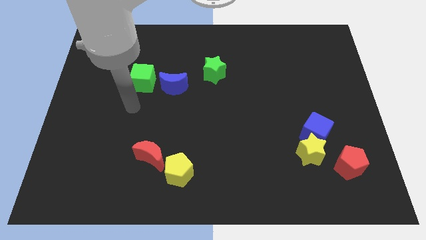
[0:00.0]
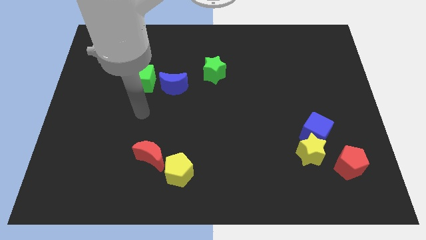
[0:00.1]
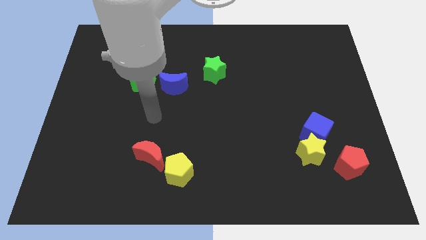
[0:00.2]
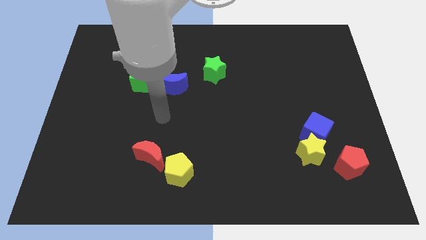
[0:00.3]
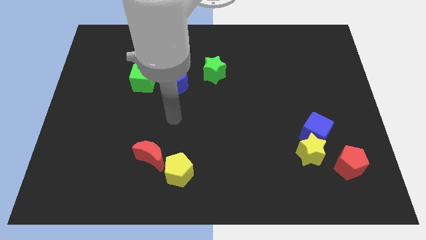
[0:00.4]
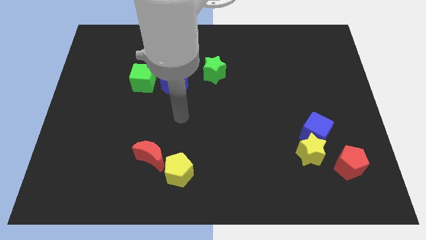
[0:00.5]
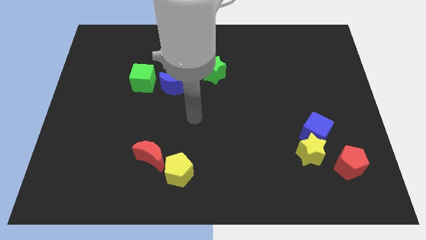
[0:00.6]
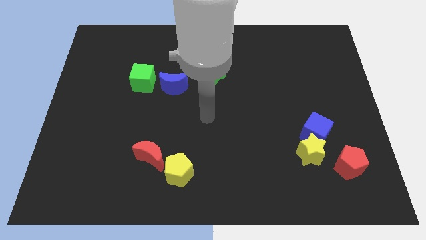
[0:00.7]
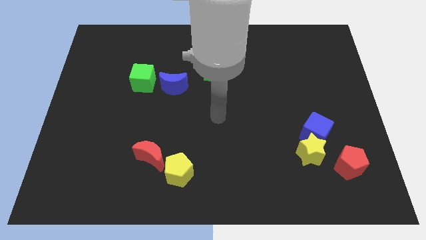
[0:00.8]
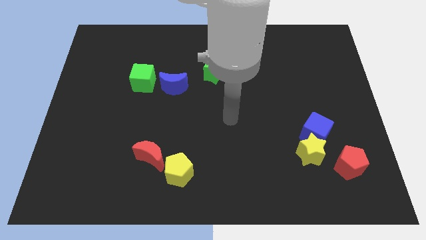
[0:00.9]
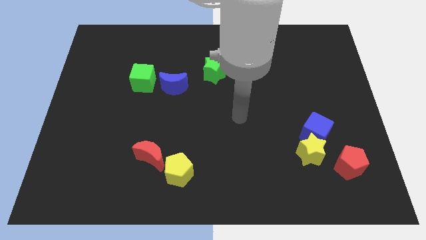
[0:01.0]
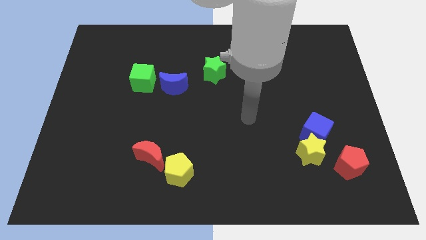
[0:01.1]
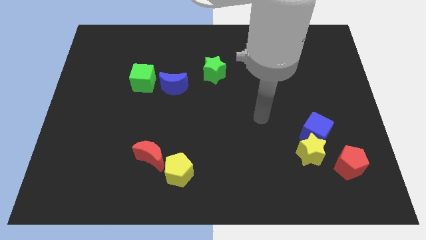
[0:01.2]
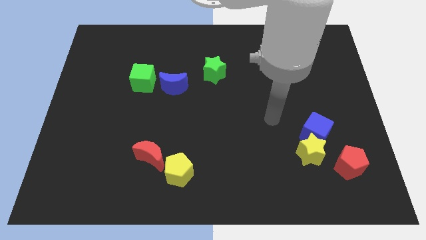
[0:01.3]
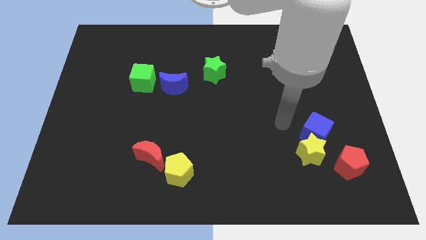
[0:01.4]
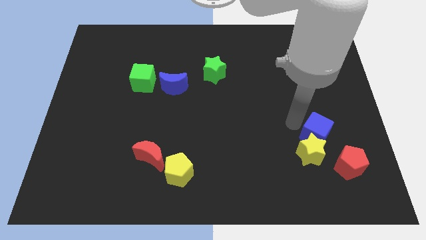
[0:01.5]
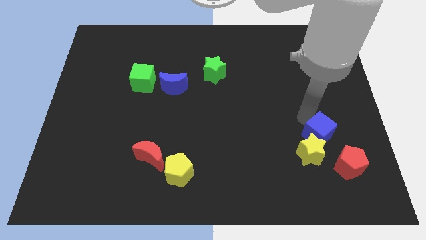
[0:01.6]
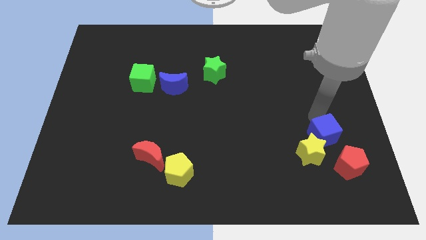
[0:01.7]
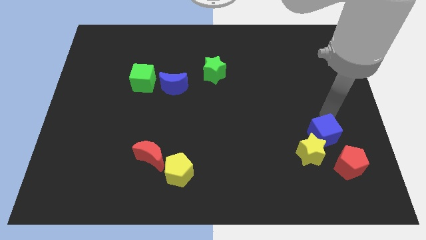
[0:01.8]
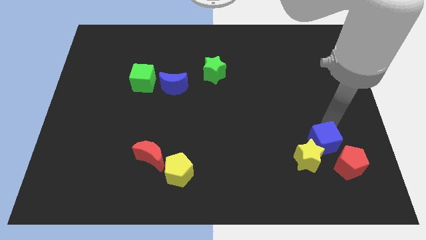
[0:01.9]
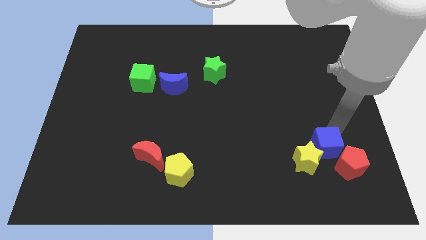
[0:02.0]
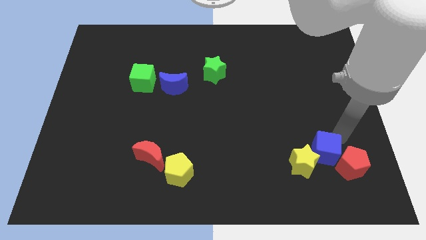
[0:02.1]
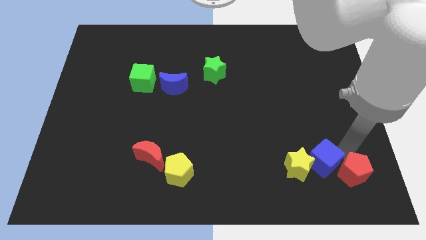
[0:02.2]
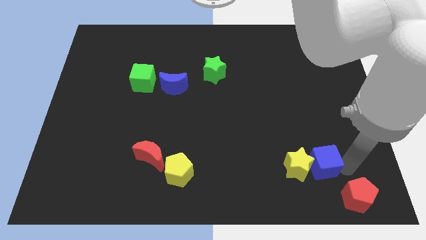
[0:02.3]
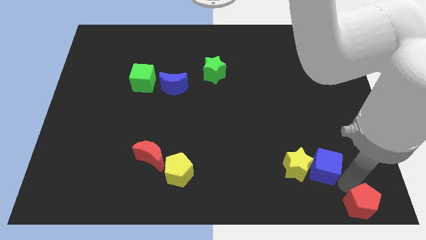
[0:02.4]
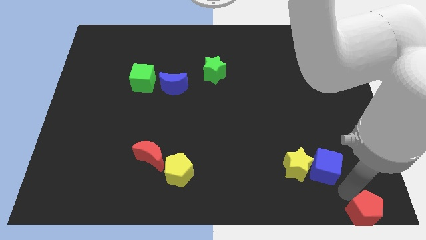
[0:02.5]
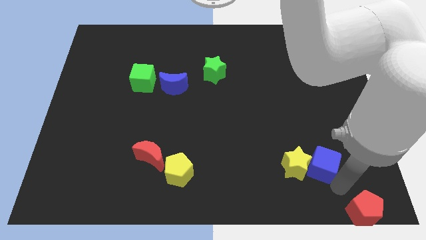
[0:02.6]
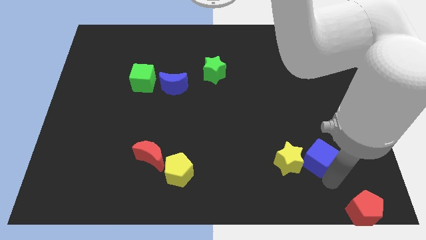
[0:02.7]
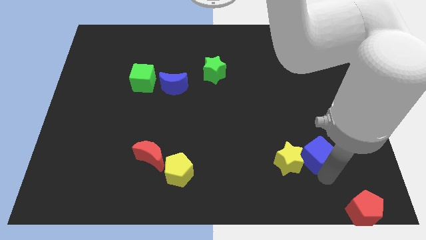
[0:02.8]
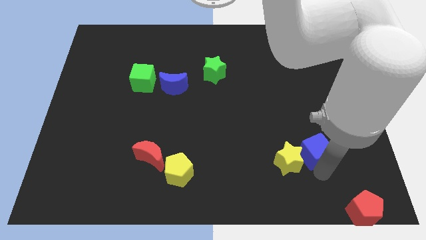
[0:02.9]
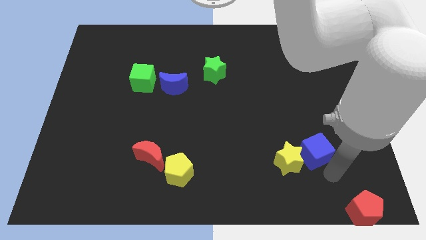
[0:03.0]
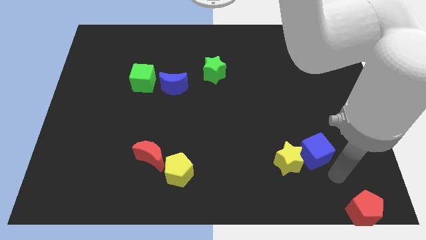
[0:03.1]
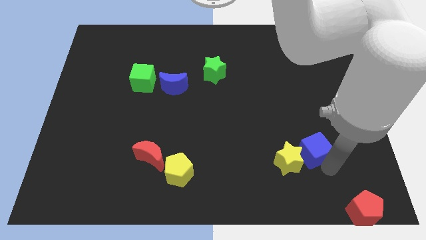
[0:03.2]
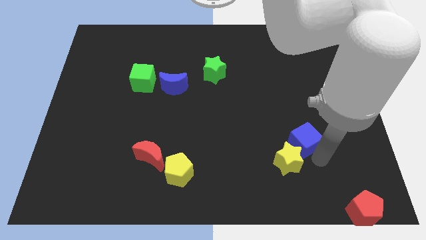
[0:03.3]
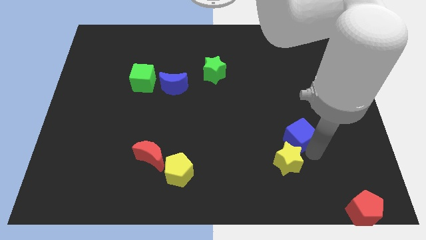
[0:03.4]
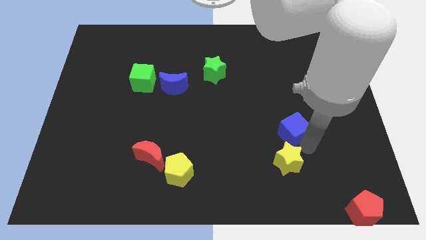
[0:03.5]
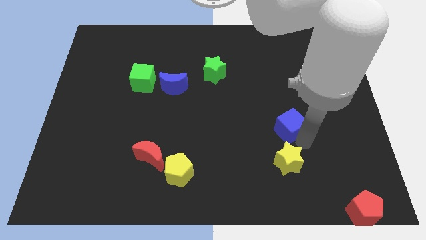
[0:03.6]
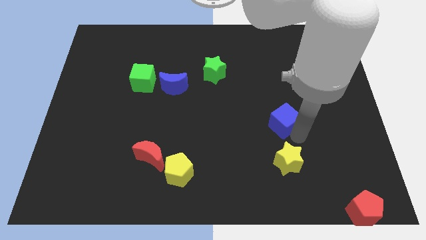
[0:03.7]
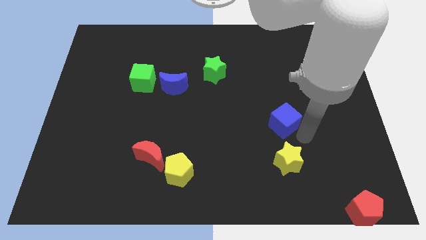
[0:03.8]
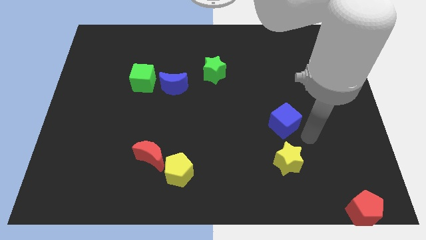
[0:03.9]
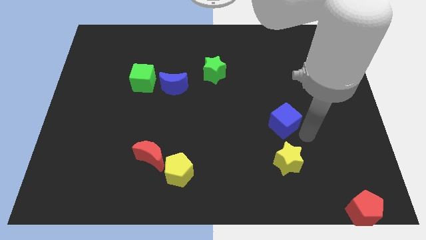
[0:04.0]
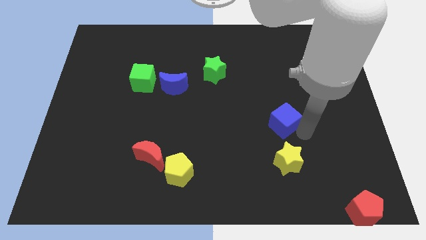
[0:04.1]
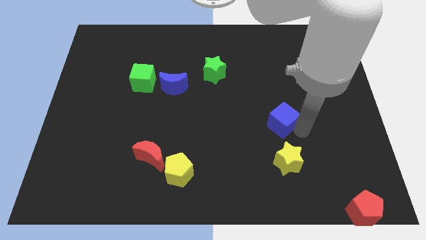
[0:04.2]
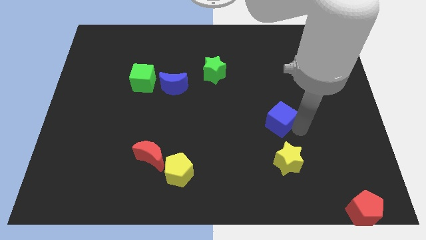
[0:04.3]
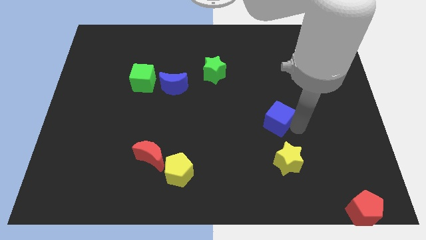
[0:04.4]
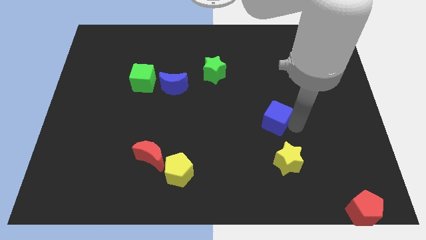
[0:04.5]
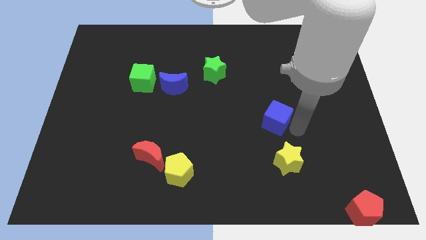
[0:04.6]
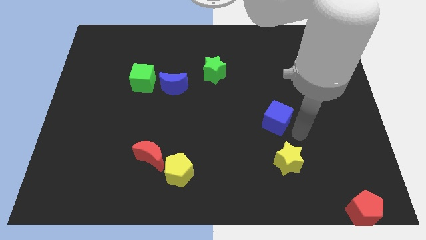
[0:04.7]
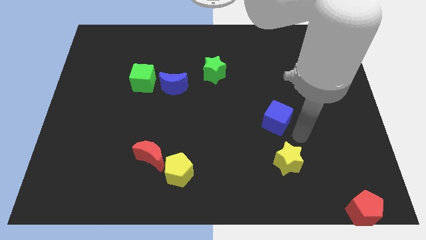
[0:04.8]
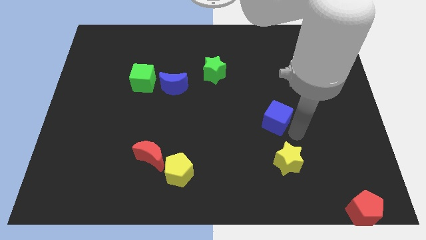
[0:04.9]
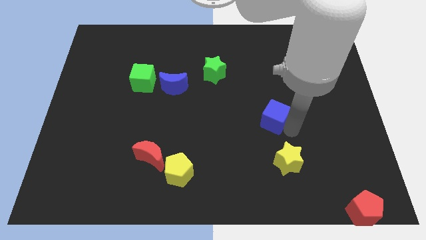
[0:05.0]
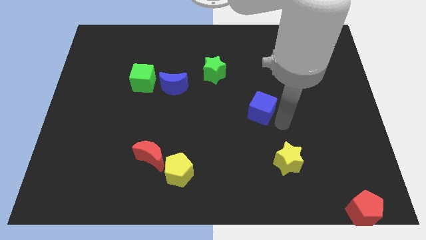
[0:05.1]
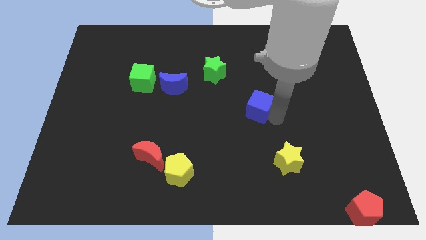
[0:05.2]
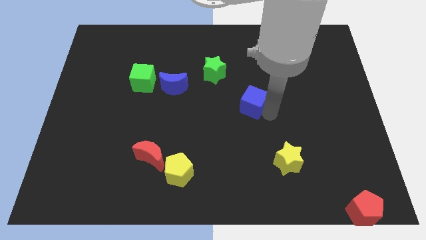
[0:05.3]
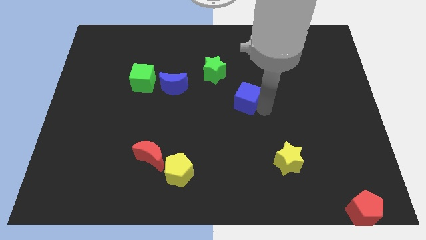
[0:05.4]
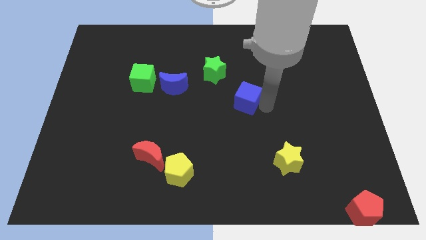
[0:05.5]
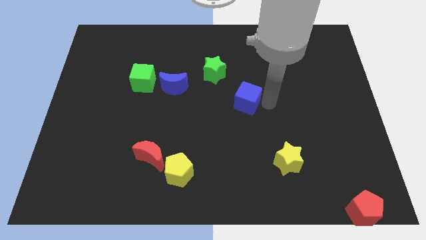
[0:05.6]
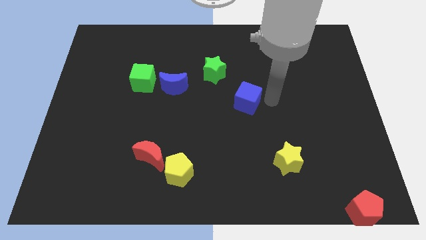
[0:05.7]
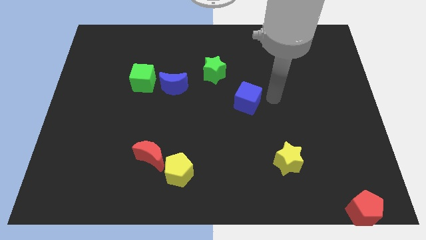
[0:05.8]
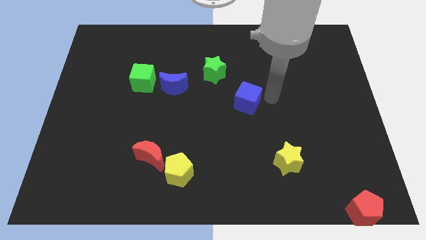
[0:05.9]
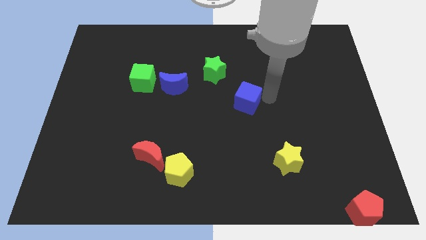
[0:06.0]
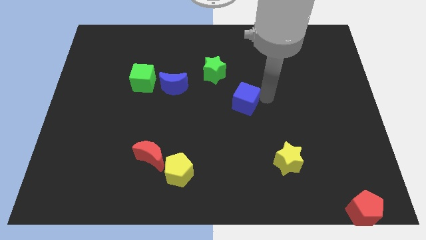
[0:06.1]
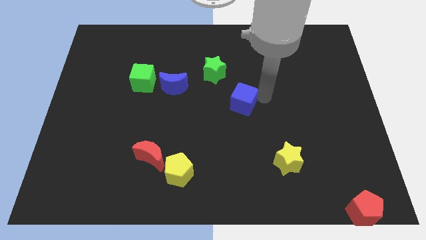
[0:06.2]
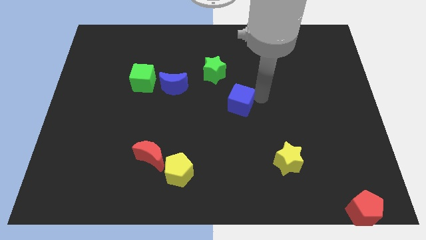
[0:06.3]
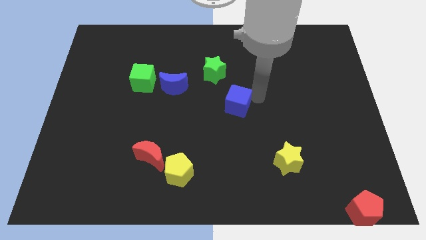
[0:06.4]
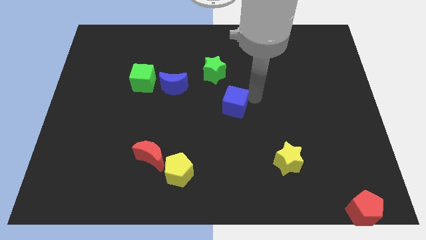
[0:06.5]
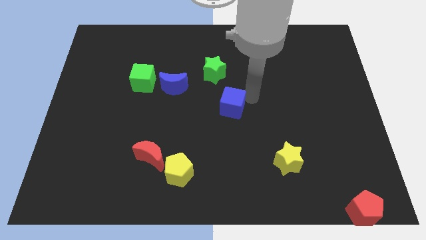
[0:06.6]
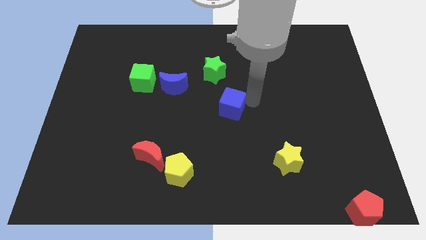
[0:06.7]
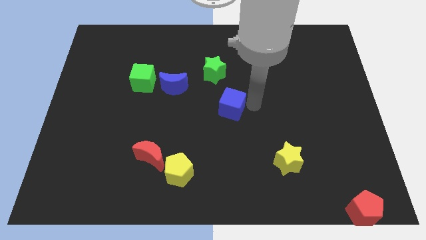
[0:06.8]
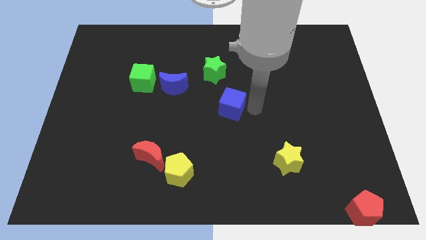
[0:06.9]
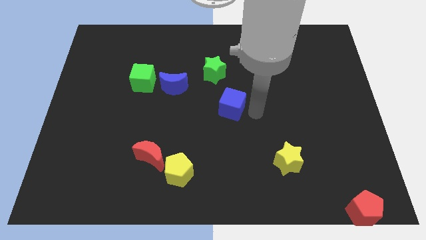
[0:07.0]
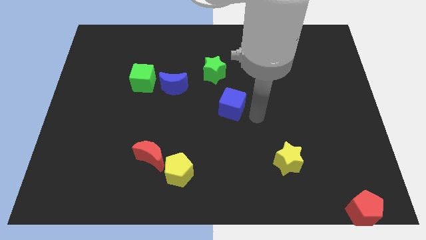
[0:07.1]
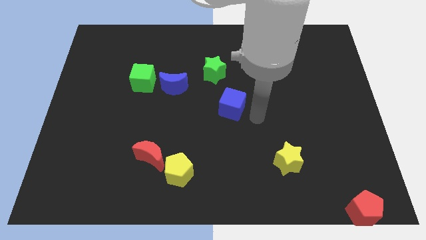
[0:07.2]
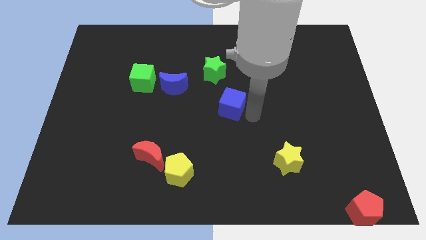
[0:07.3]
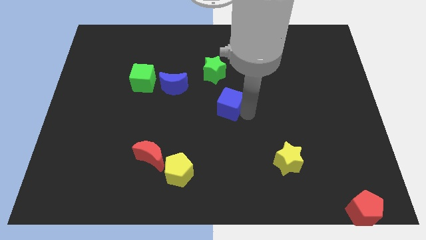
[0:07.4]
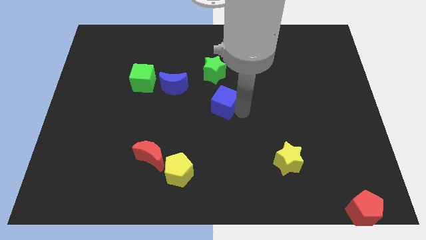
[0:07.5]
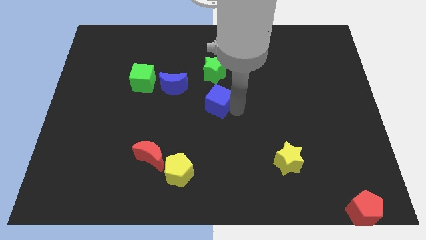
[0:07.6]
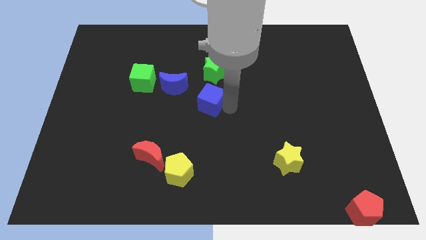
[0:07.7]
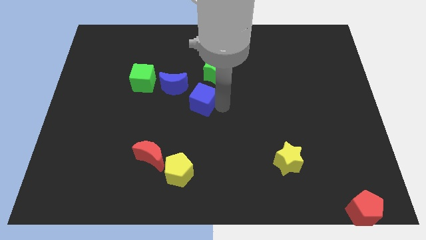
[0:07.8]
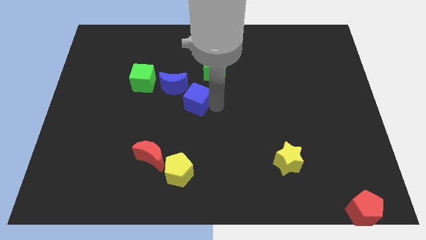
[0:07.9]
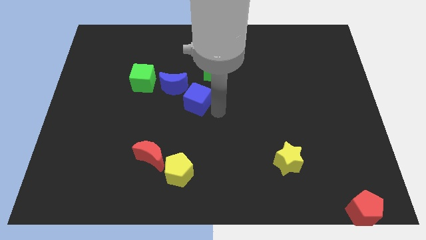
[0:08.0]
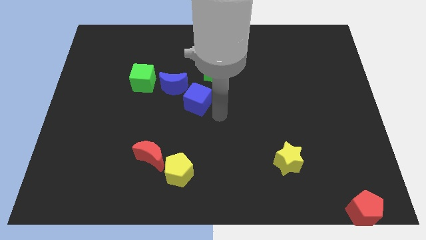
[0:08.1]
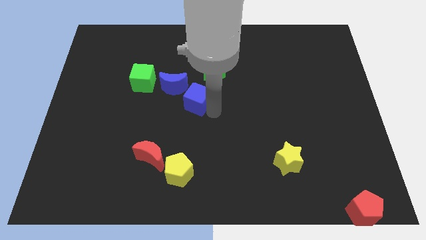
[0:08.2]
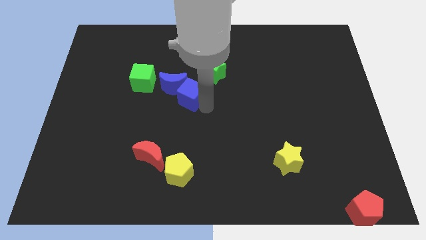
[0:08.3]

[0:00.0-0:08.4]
push the blue cube close to the blue moon
